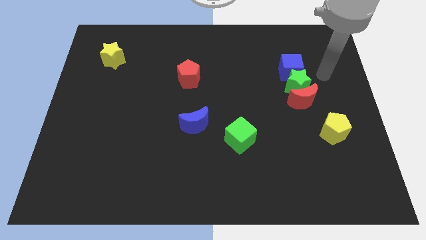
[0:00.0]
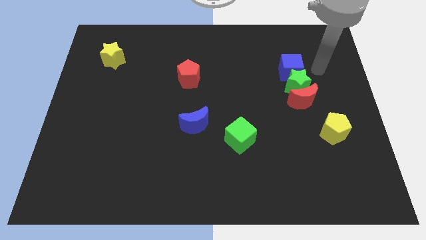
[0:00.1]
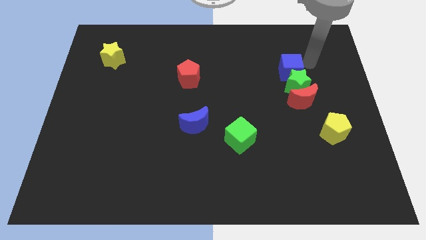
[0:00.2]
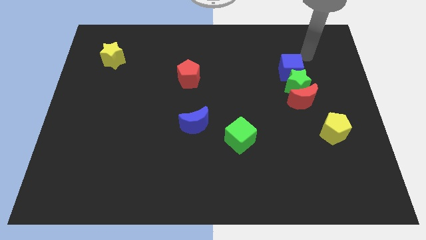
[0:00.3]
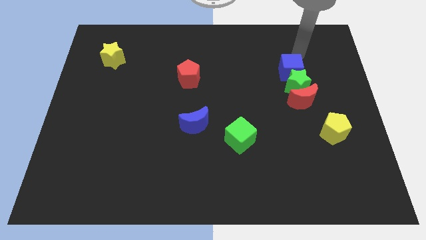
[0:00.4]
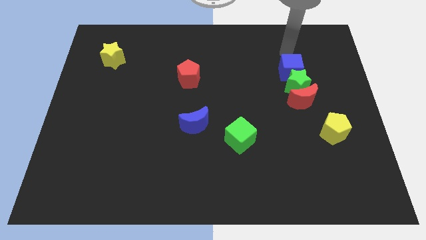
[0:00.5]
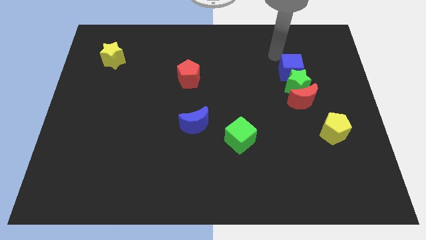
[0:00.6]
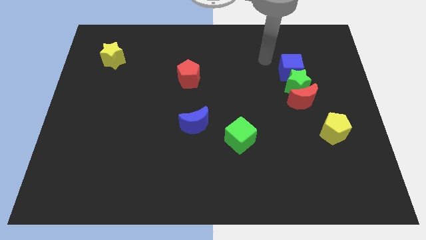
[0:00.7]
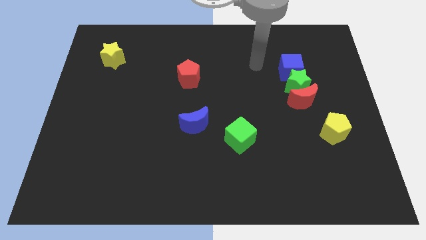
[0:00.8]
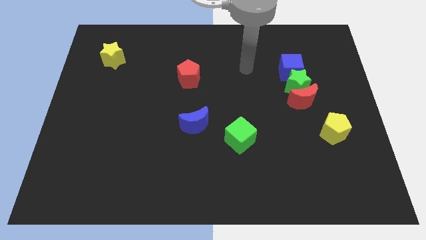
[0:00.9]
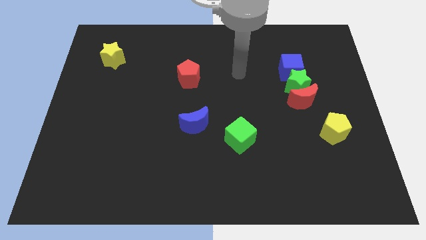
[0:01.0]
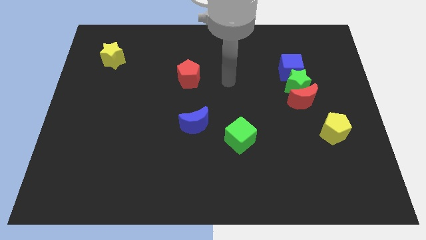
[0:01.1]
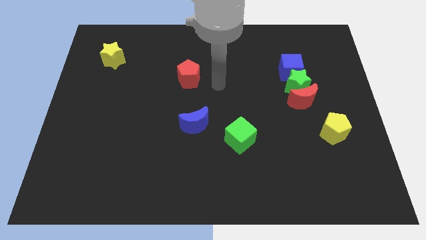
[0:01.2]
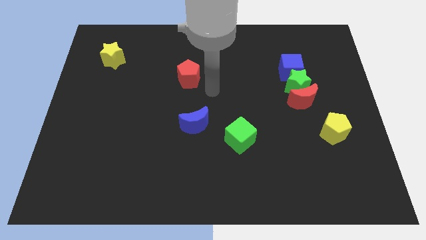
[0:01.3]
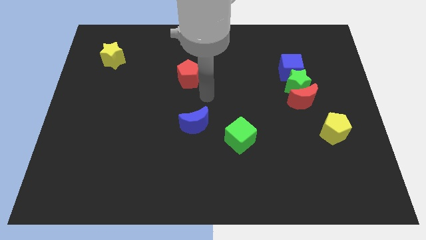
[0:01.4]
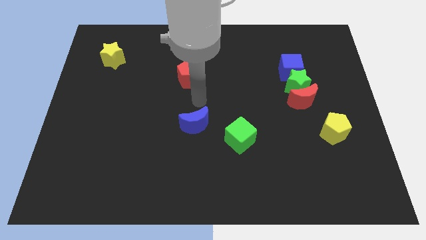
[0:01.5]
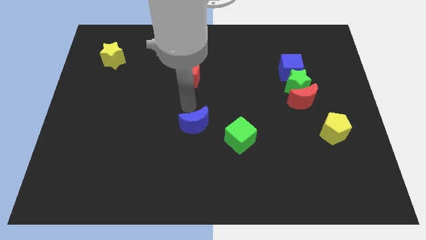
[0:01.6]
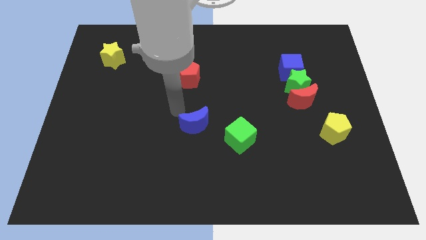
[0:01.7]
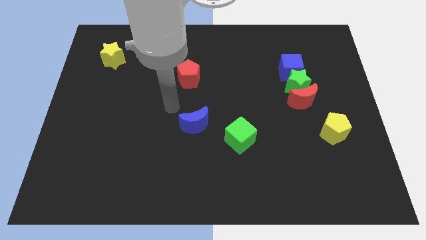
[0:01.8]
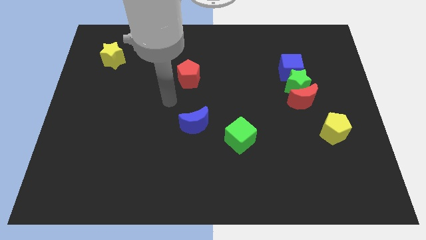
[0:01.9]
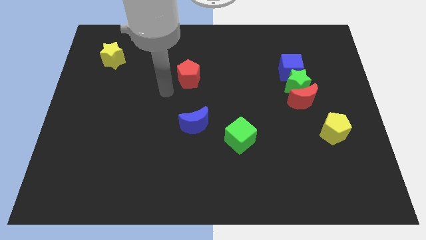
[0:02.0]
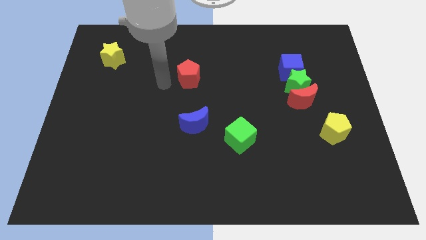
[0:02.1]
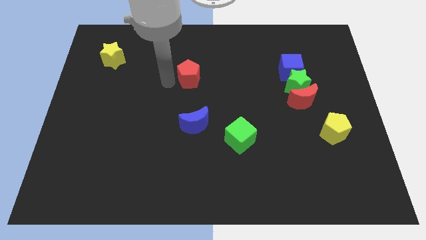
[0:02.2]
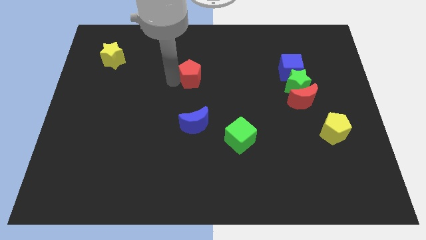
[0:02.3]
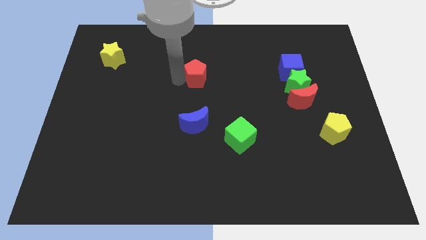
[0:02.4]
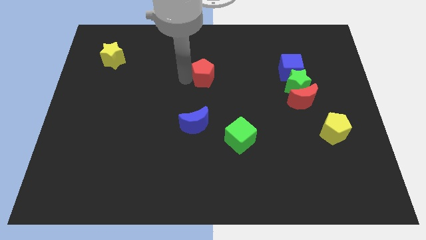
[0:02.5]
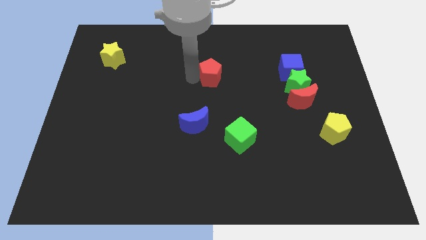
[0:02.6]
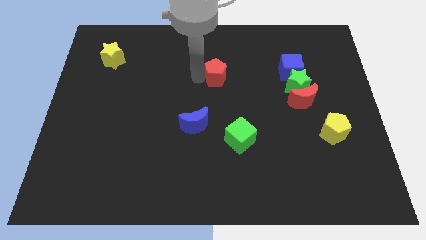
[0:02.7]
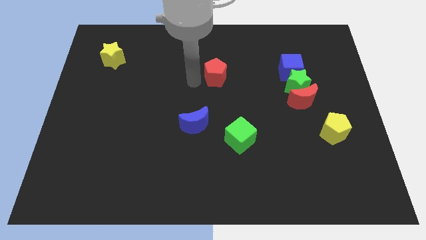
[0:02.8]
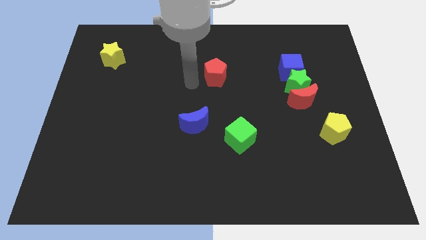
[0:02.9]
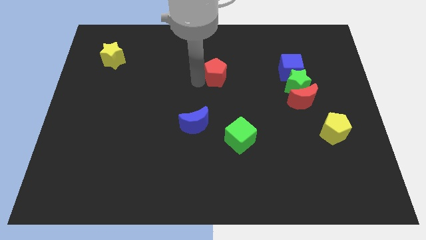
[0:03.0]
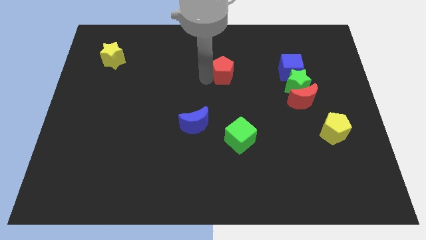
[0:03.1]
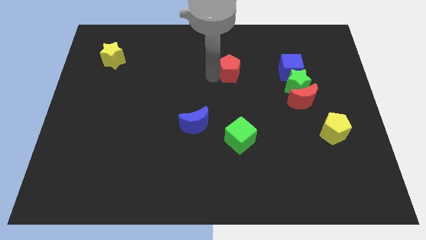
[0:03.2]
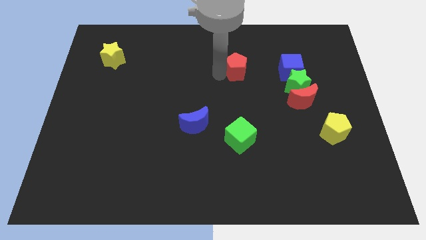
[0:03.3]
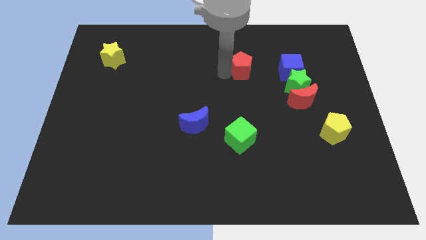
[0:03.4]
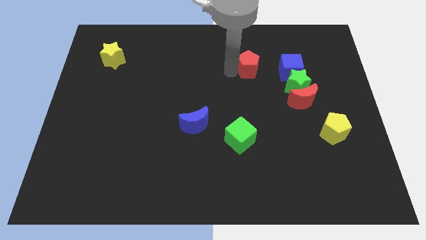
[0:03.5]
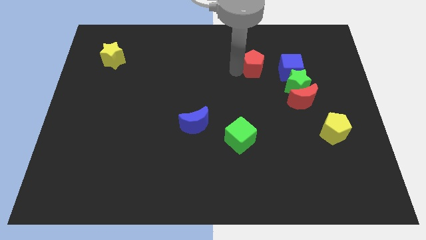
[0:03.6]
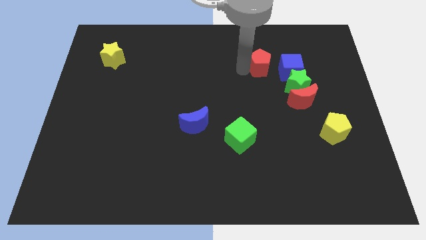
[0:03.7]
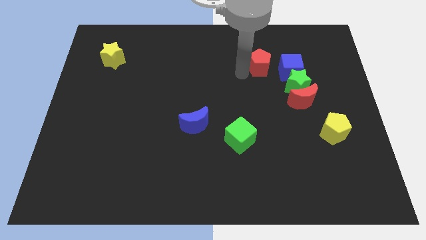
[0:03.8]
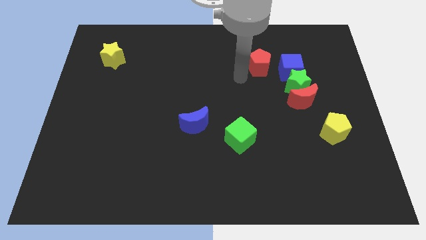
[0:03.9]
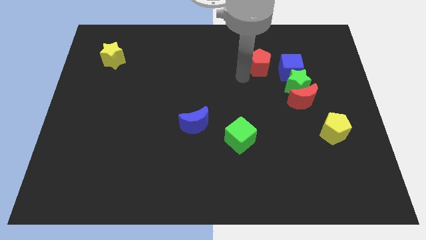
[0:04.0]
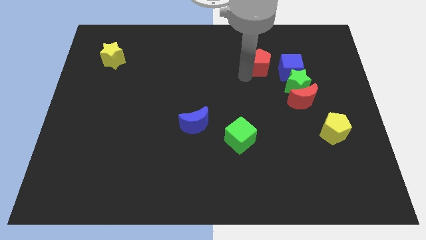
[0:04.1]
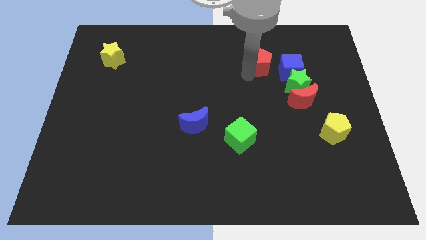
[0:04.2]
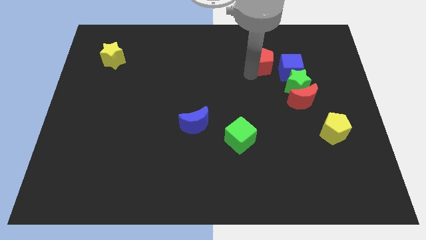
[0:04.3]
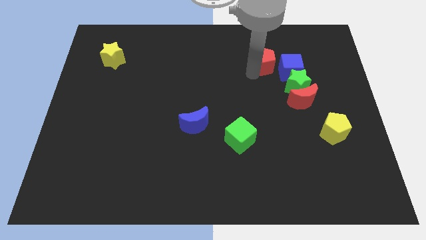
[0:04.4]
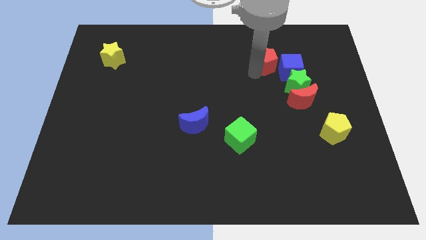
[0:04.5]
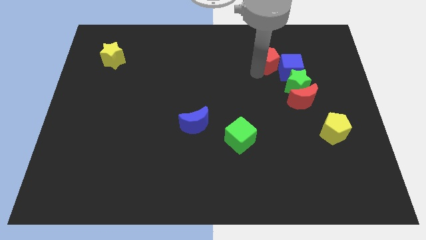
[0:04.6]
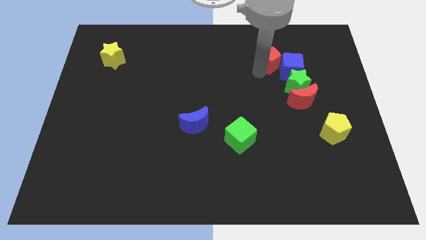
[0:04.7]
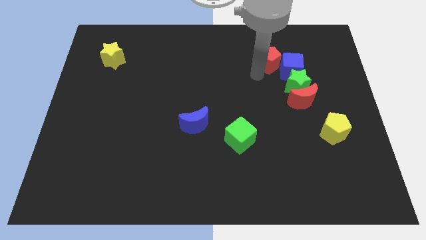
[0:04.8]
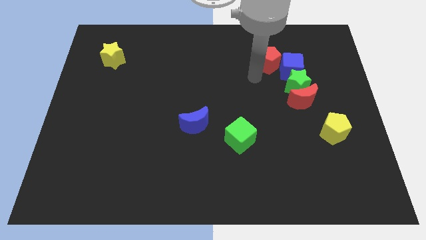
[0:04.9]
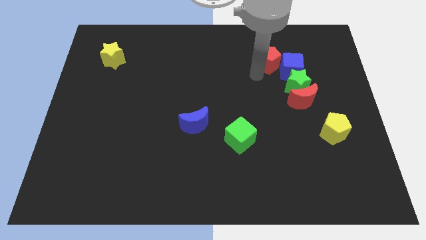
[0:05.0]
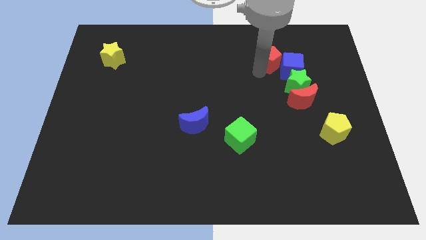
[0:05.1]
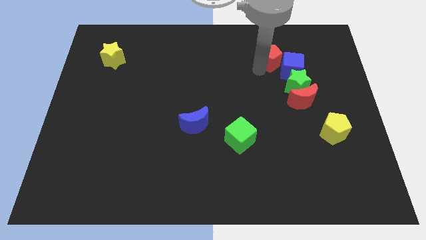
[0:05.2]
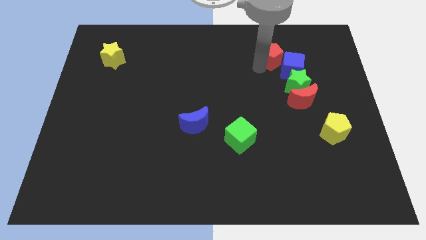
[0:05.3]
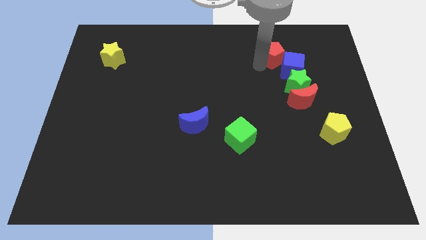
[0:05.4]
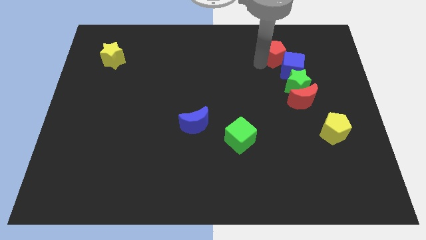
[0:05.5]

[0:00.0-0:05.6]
put the red pentagon to the top of the green star

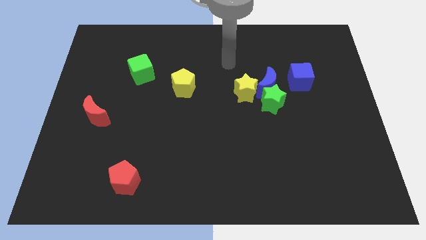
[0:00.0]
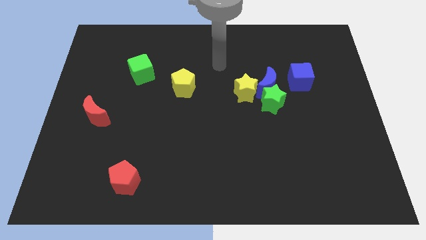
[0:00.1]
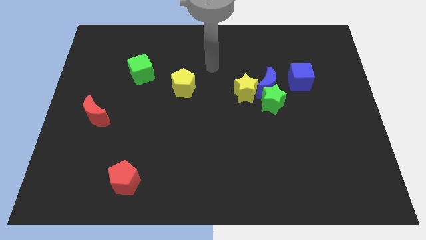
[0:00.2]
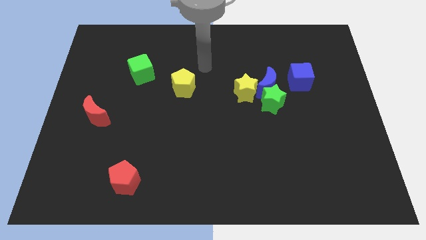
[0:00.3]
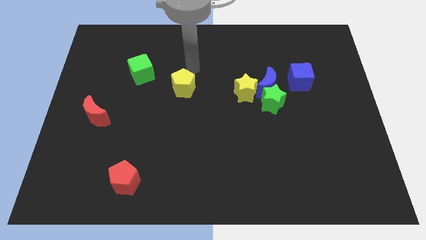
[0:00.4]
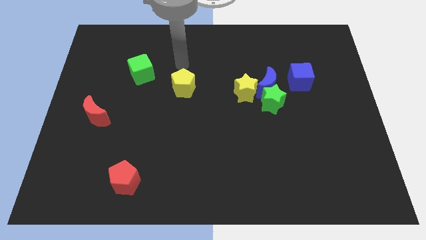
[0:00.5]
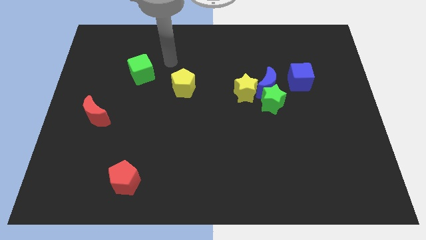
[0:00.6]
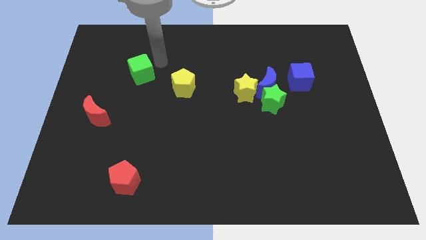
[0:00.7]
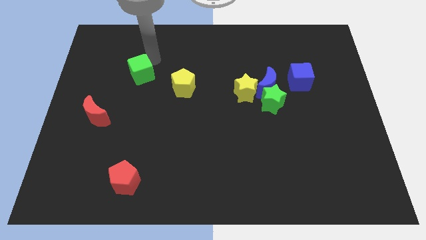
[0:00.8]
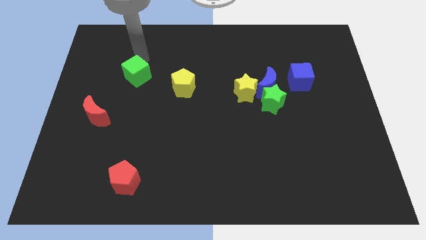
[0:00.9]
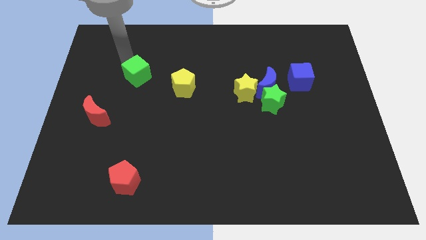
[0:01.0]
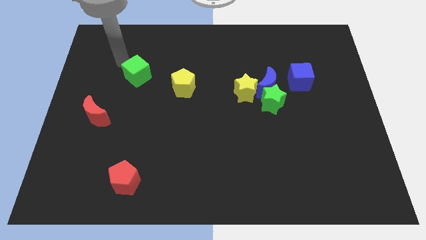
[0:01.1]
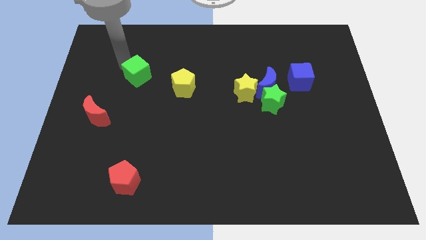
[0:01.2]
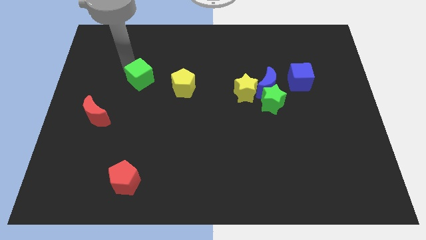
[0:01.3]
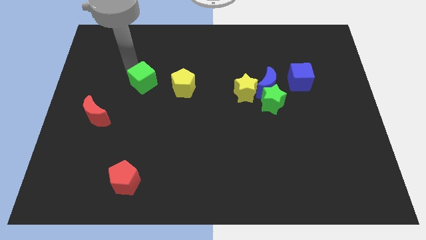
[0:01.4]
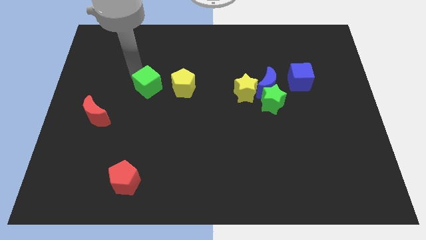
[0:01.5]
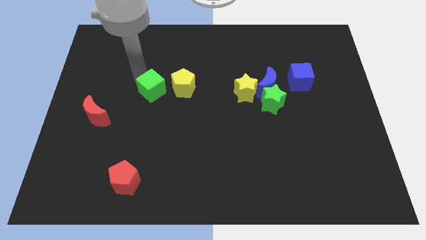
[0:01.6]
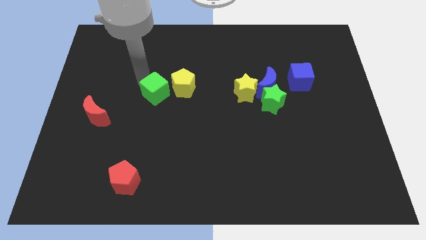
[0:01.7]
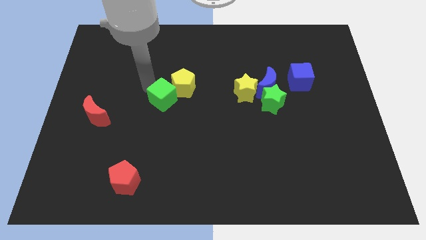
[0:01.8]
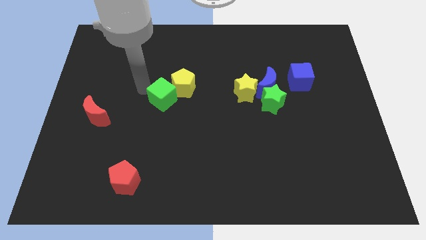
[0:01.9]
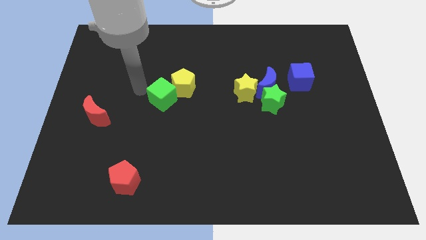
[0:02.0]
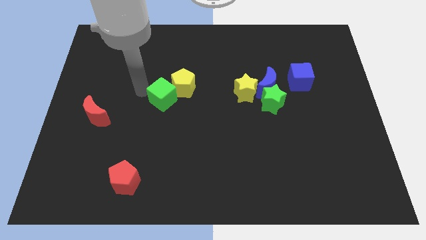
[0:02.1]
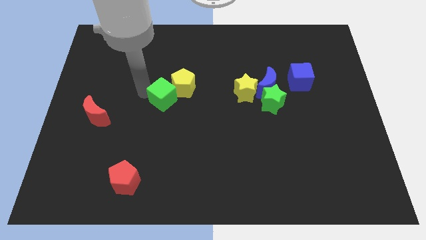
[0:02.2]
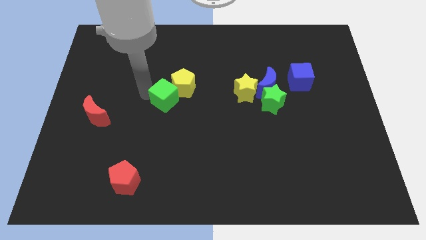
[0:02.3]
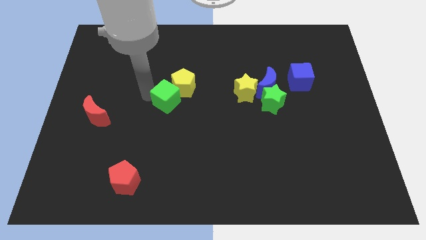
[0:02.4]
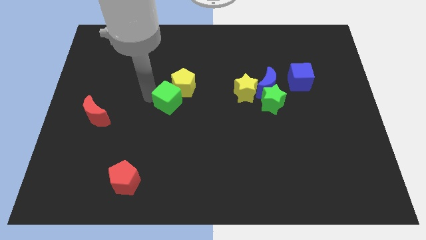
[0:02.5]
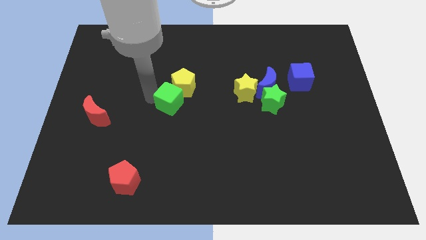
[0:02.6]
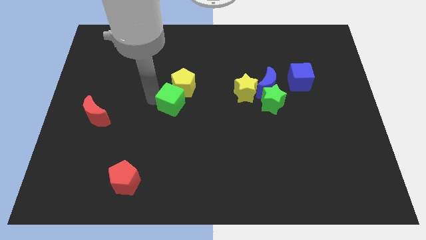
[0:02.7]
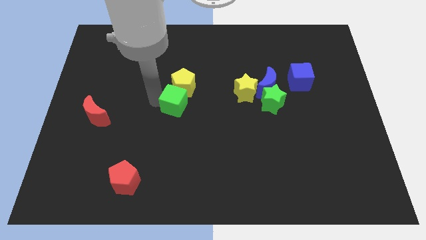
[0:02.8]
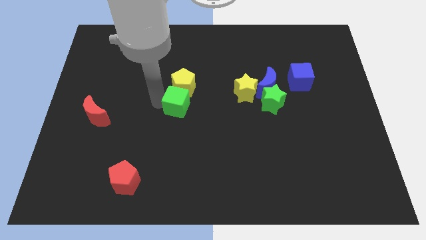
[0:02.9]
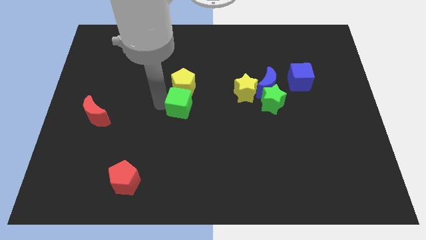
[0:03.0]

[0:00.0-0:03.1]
move the green cube to the bottom right of the yellow pentagon
